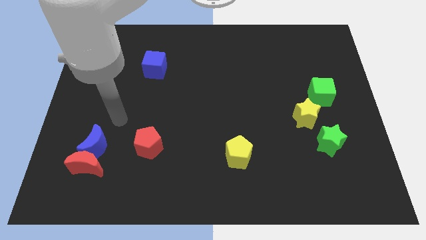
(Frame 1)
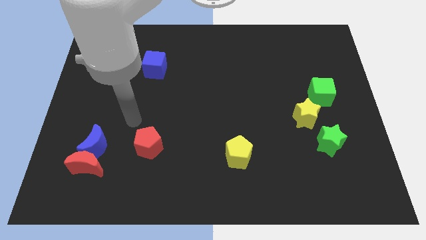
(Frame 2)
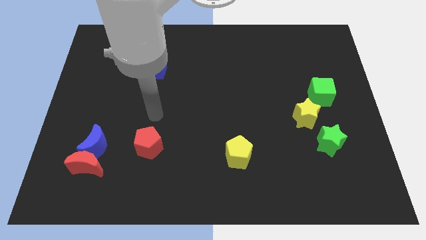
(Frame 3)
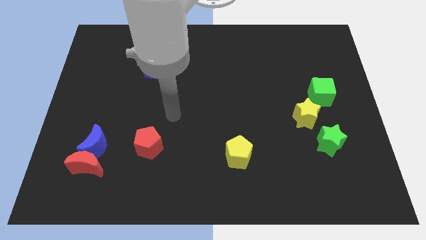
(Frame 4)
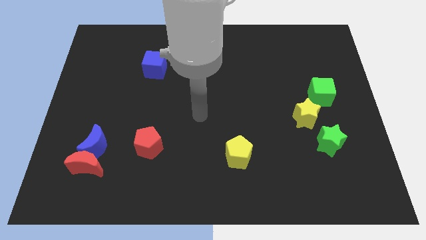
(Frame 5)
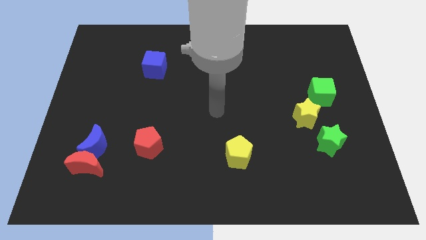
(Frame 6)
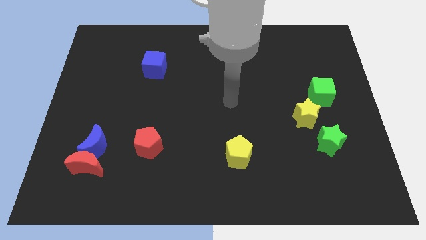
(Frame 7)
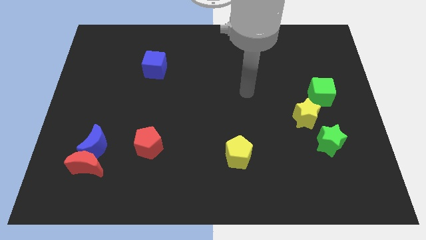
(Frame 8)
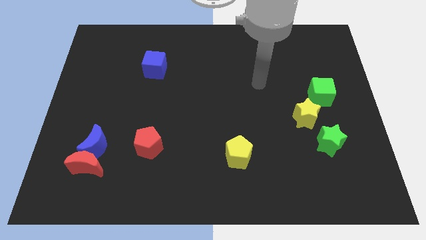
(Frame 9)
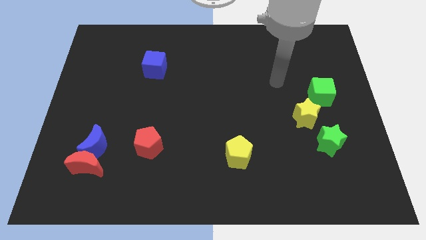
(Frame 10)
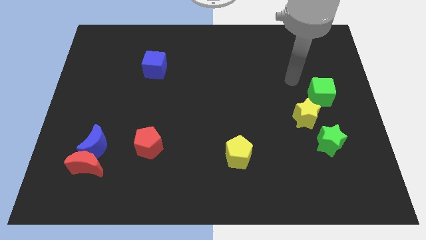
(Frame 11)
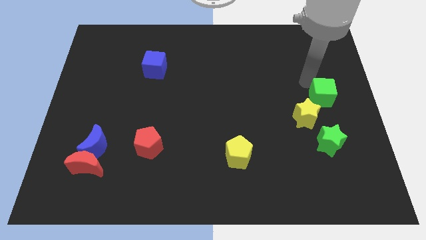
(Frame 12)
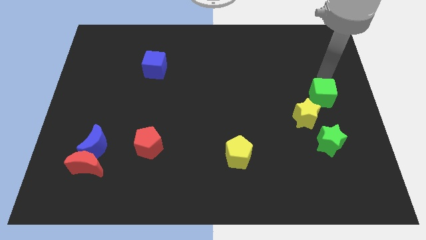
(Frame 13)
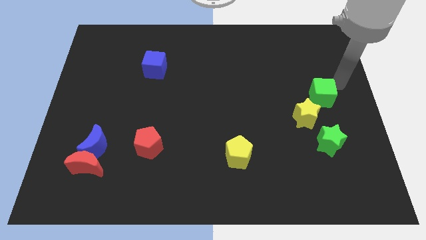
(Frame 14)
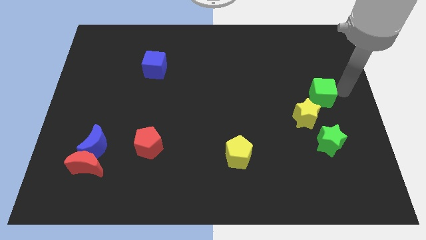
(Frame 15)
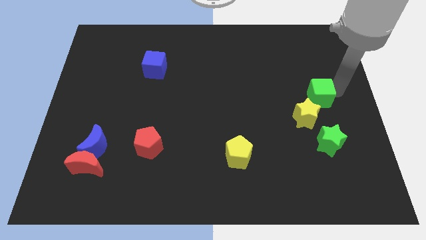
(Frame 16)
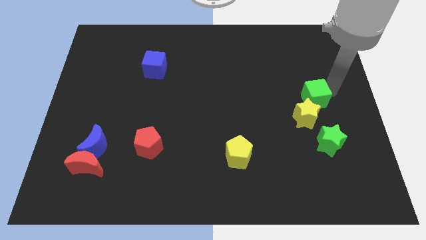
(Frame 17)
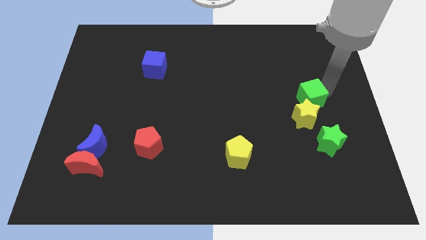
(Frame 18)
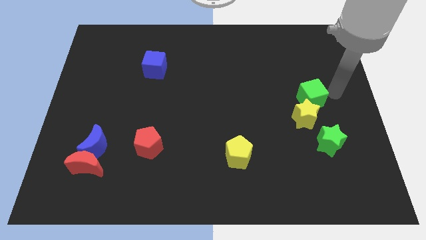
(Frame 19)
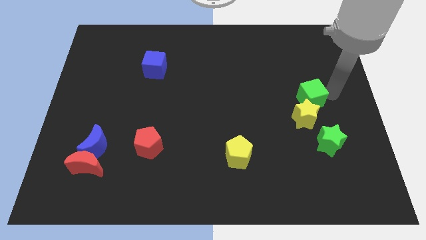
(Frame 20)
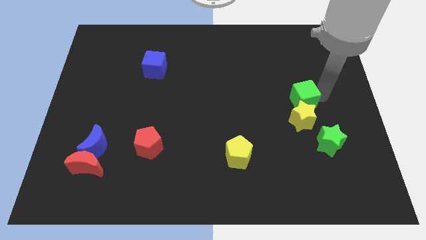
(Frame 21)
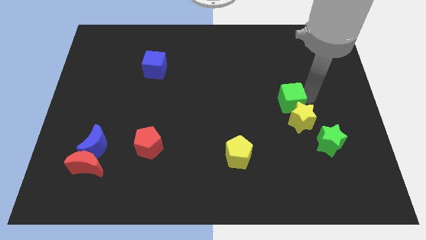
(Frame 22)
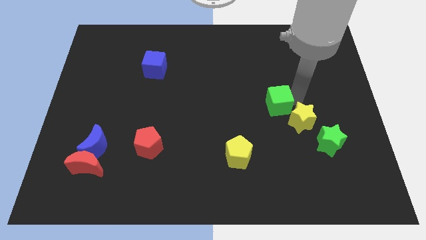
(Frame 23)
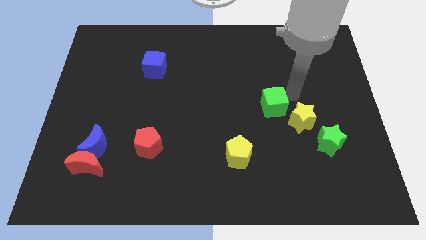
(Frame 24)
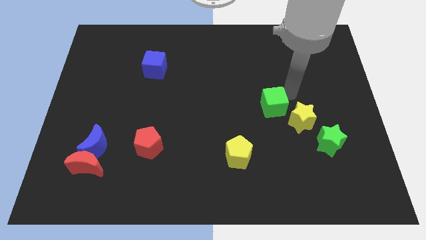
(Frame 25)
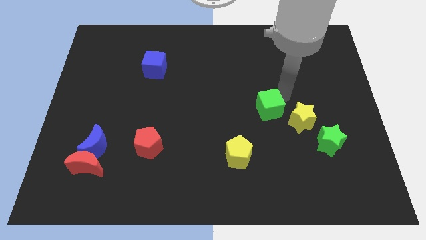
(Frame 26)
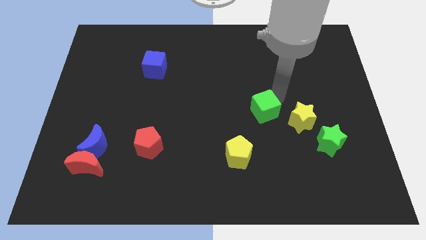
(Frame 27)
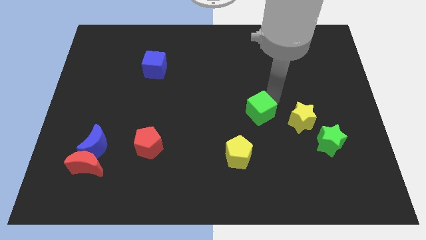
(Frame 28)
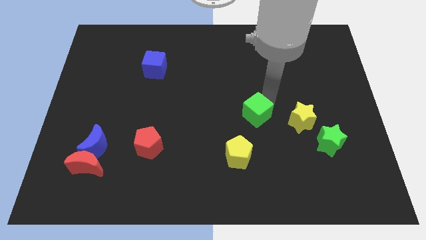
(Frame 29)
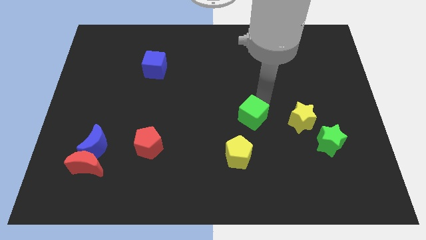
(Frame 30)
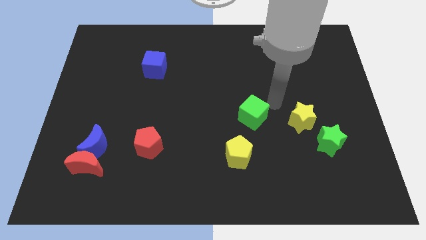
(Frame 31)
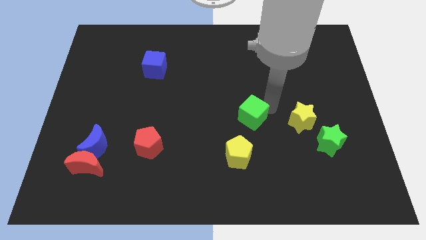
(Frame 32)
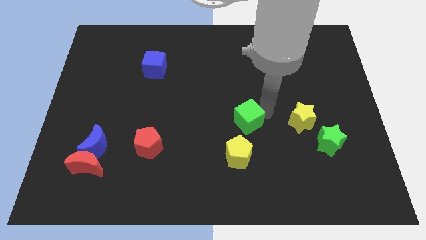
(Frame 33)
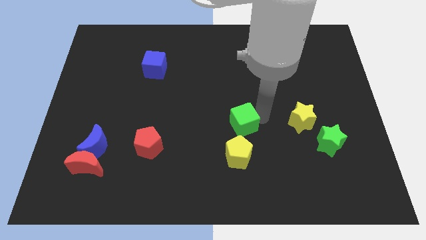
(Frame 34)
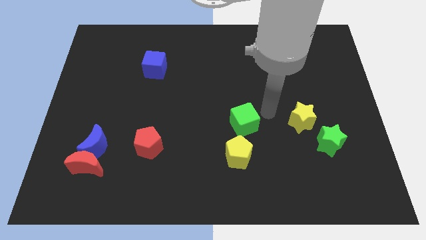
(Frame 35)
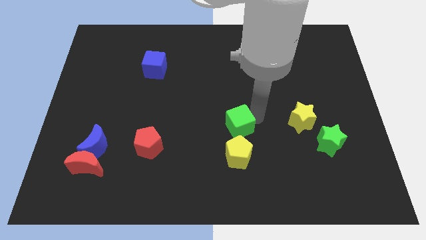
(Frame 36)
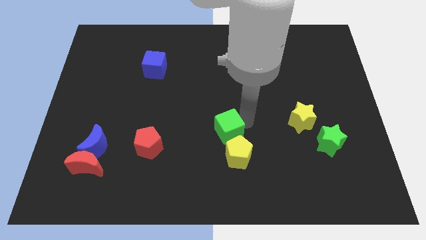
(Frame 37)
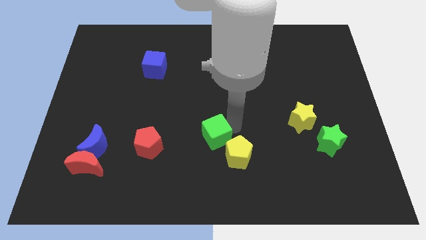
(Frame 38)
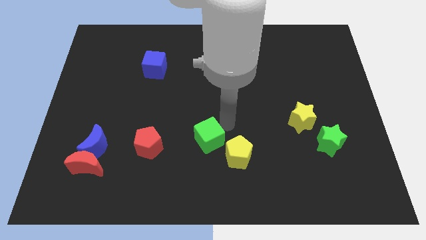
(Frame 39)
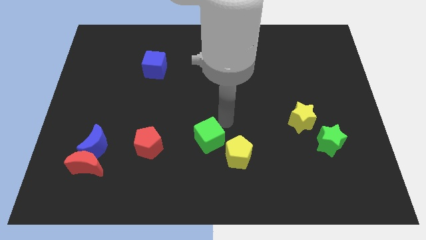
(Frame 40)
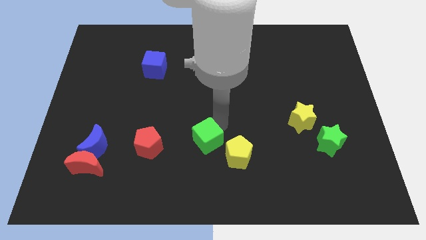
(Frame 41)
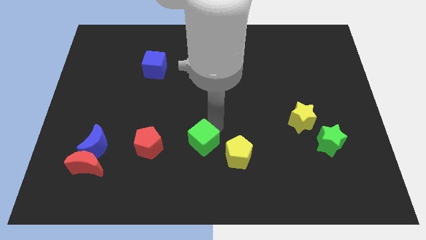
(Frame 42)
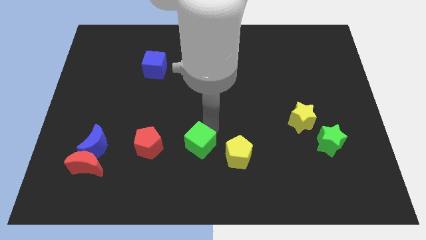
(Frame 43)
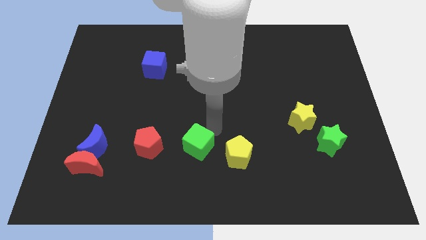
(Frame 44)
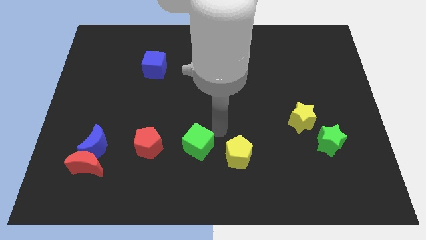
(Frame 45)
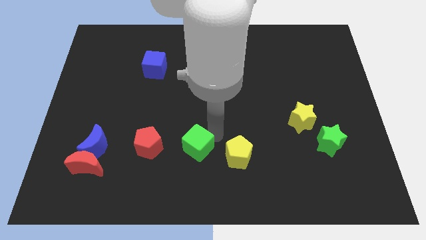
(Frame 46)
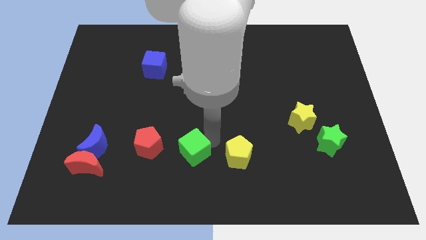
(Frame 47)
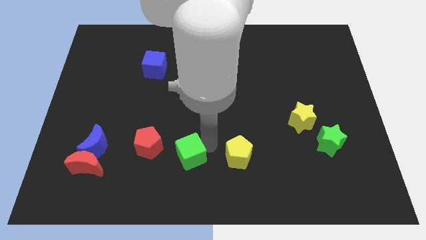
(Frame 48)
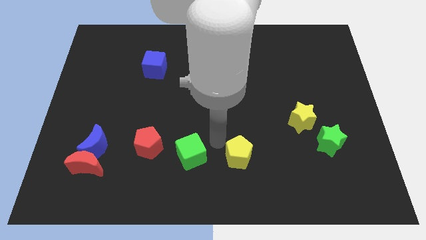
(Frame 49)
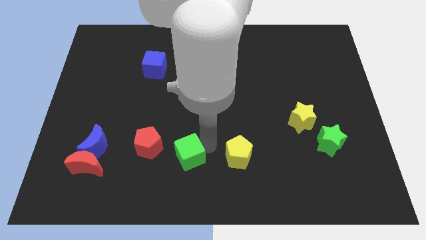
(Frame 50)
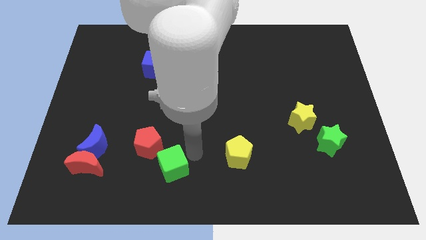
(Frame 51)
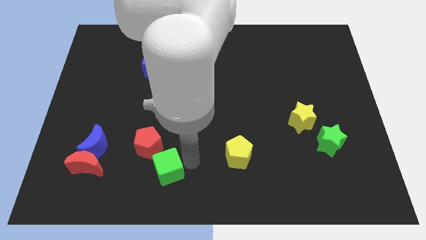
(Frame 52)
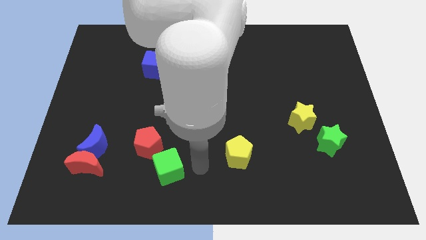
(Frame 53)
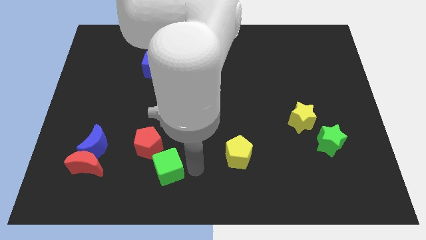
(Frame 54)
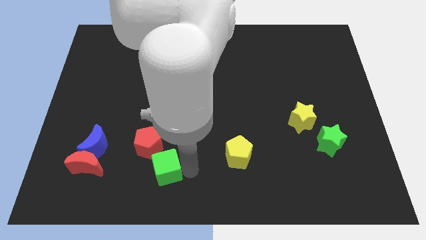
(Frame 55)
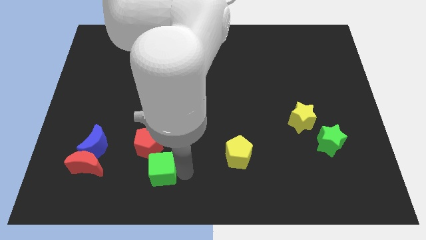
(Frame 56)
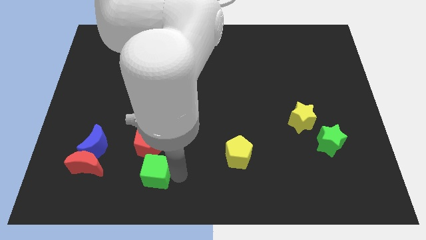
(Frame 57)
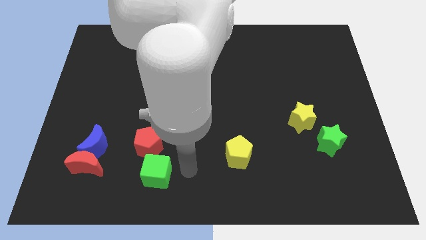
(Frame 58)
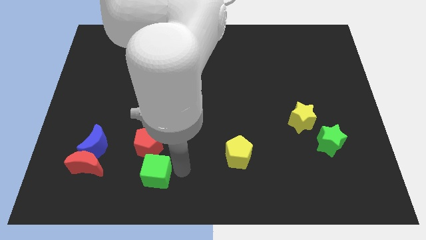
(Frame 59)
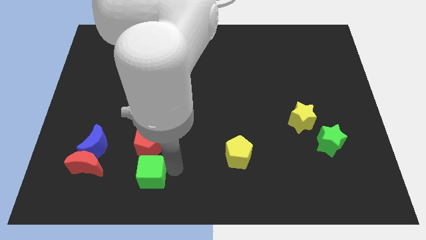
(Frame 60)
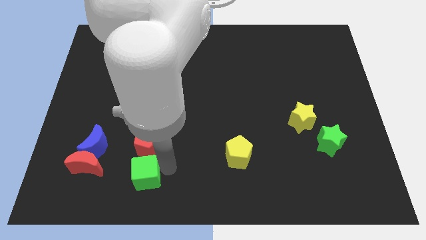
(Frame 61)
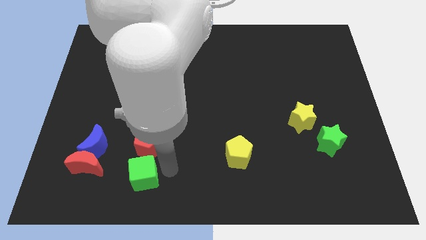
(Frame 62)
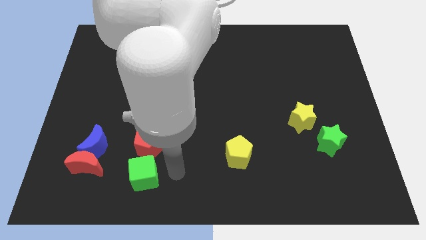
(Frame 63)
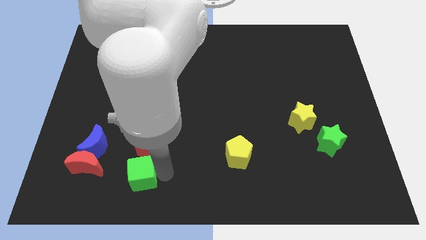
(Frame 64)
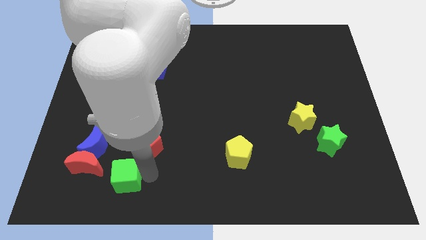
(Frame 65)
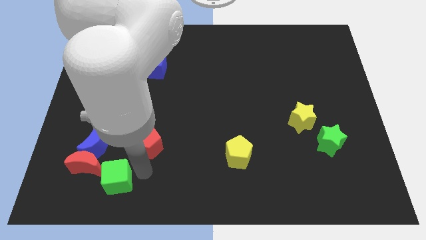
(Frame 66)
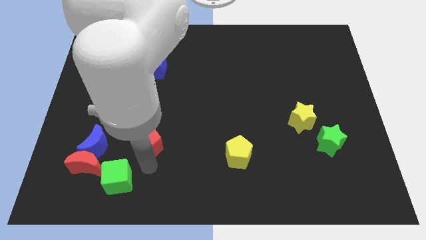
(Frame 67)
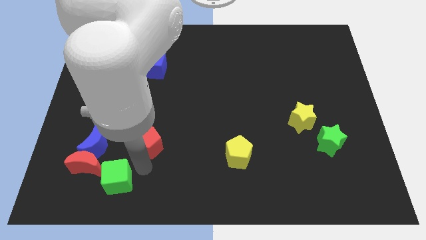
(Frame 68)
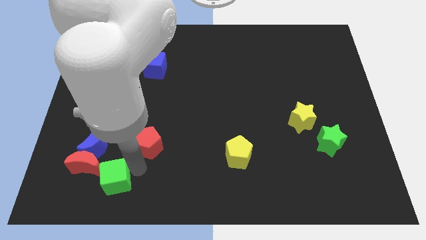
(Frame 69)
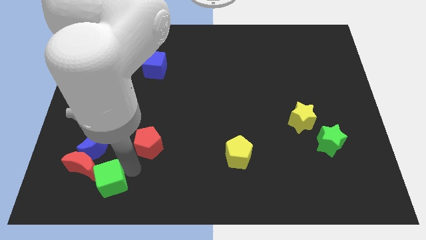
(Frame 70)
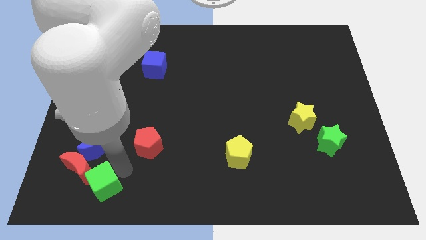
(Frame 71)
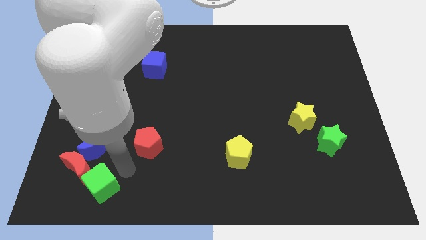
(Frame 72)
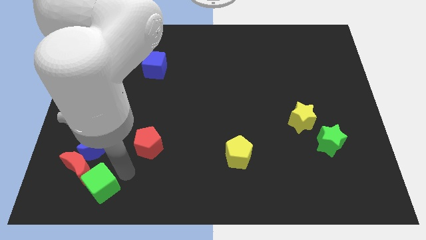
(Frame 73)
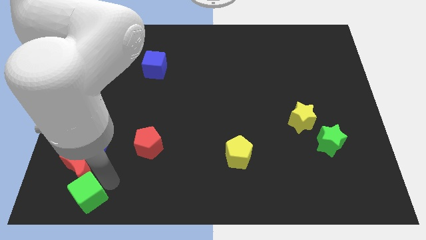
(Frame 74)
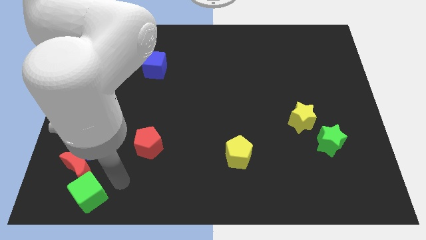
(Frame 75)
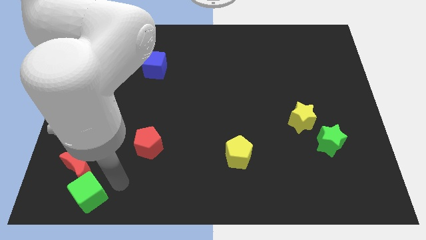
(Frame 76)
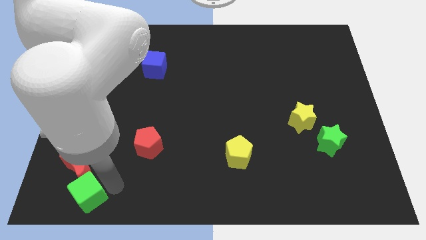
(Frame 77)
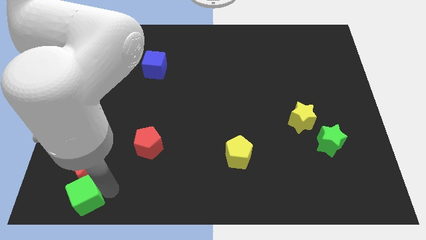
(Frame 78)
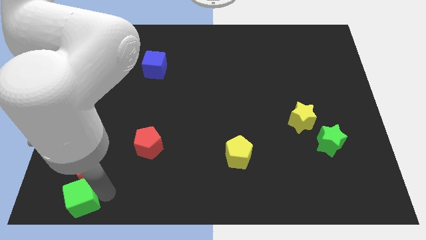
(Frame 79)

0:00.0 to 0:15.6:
move the green cube to the bottom left of the board
